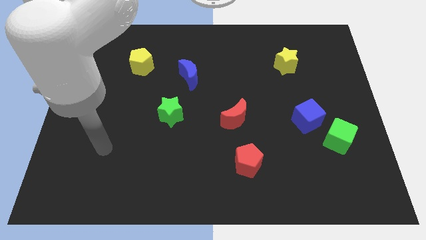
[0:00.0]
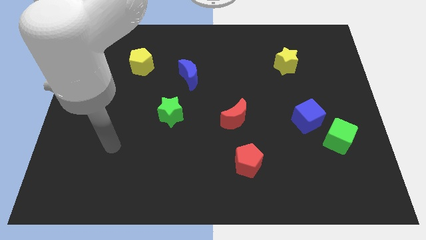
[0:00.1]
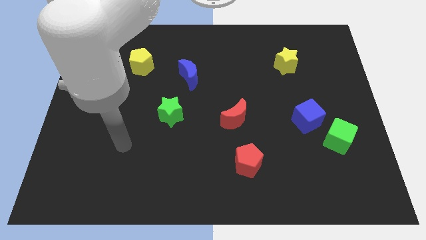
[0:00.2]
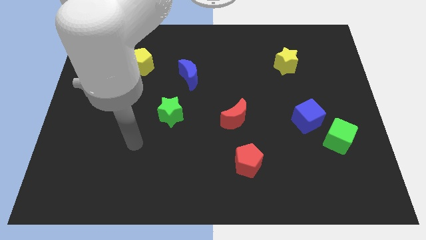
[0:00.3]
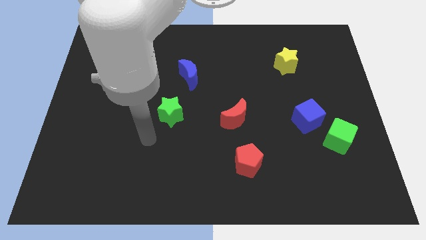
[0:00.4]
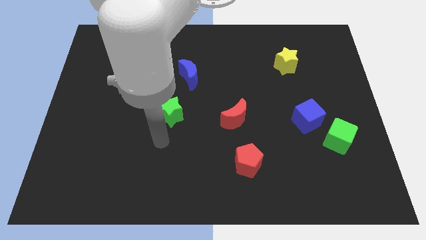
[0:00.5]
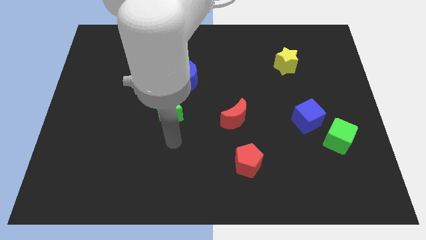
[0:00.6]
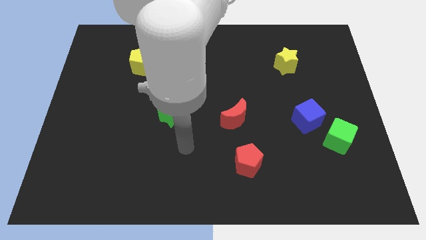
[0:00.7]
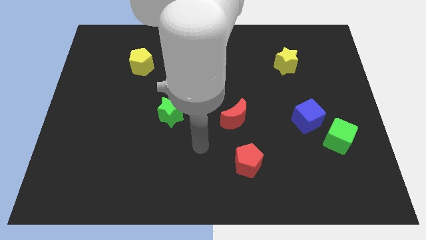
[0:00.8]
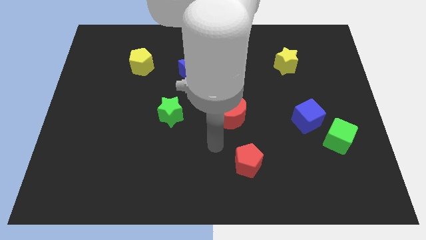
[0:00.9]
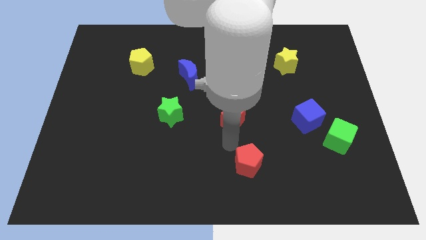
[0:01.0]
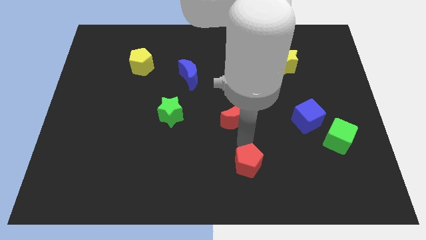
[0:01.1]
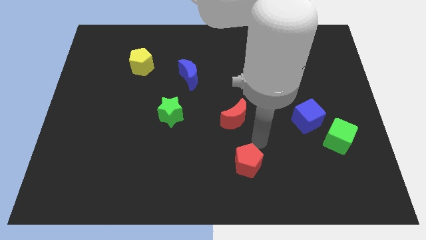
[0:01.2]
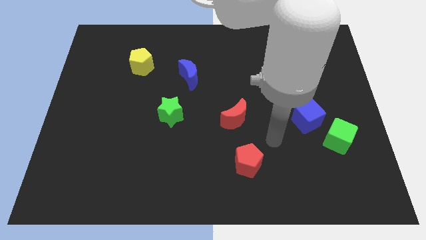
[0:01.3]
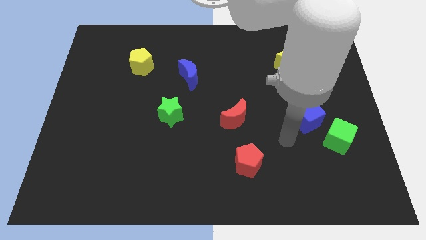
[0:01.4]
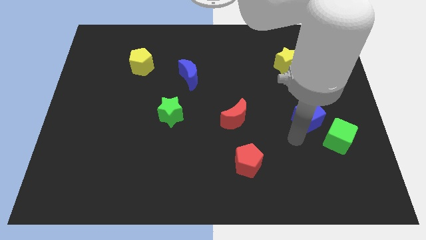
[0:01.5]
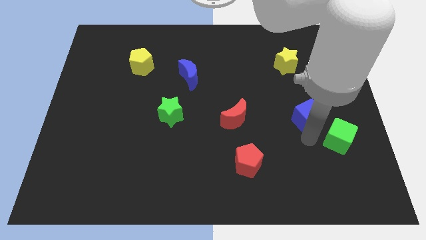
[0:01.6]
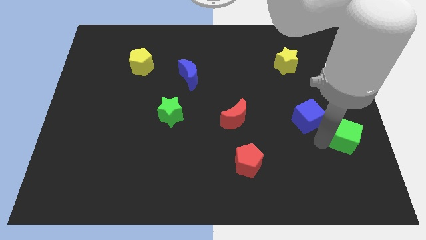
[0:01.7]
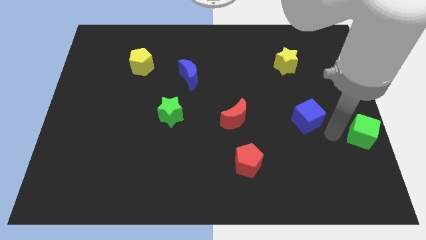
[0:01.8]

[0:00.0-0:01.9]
move the blue cube away from the green cube

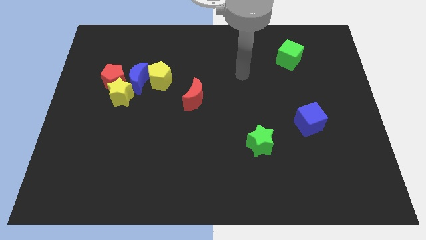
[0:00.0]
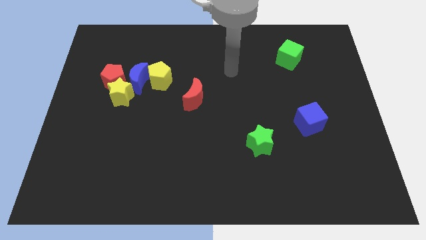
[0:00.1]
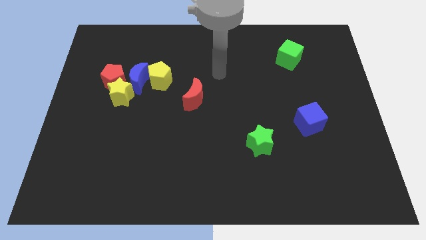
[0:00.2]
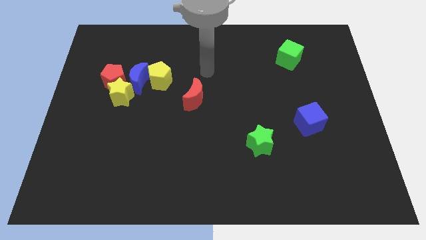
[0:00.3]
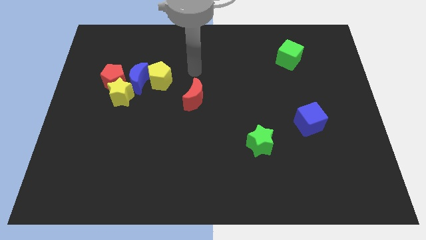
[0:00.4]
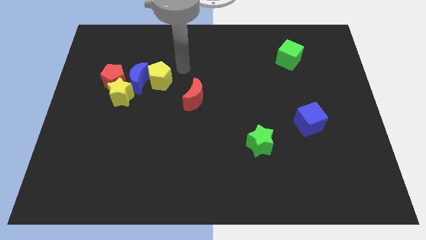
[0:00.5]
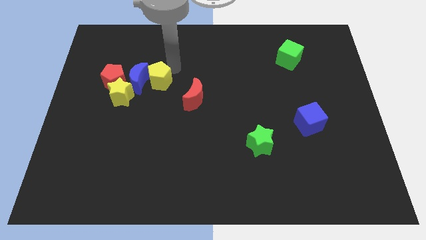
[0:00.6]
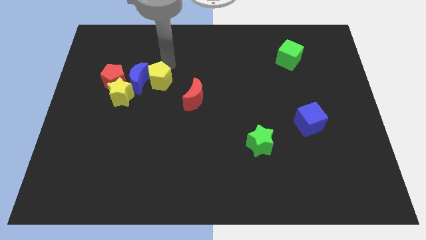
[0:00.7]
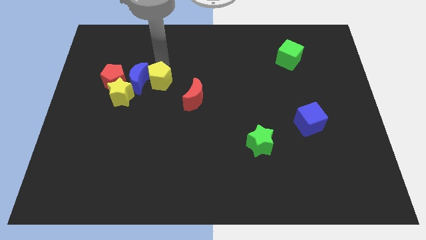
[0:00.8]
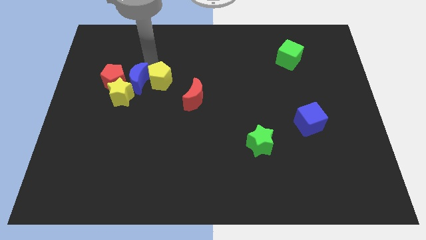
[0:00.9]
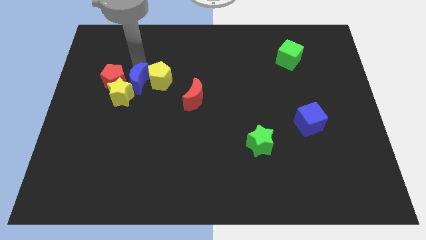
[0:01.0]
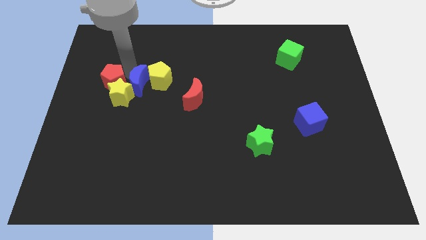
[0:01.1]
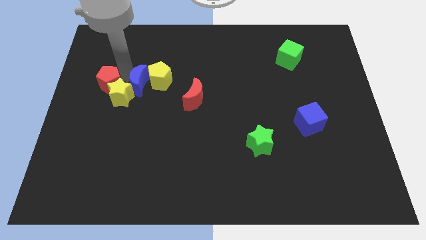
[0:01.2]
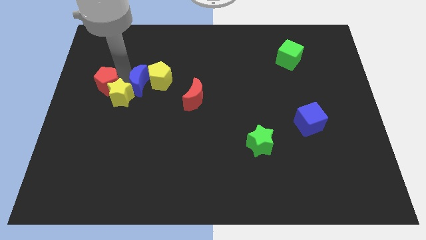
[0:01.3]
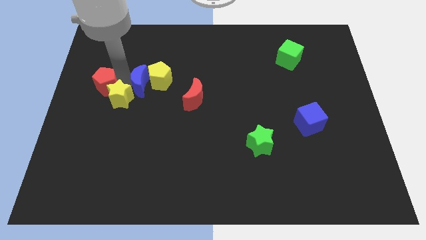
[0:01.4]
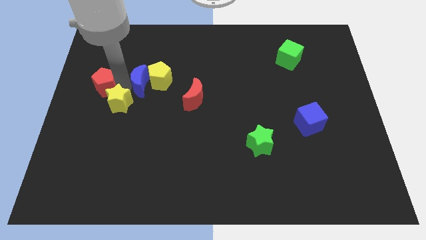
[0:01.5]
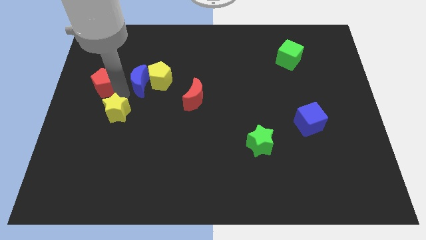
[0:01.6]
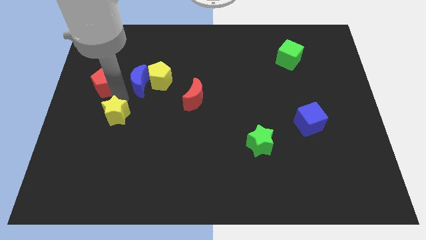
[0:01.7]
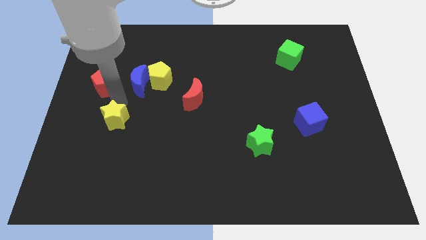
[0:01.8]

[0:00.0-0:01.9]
pull the yellow star apart from the red pentagon and blue moon

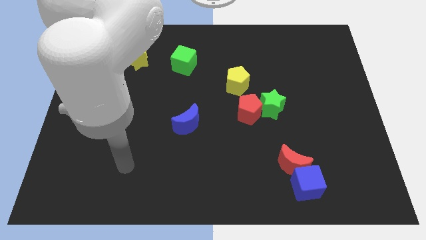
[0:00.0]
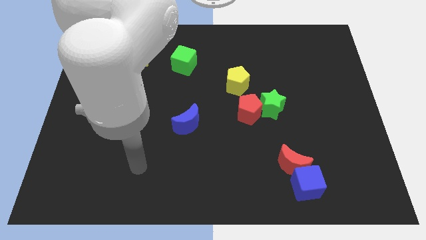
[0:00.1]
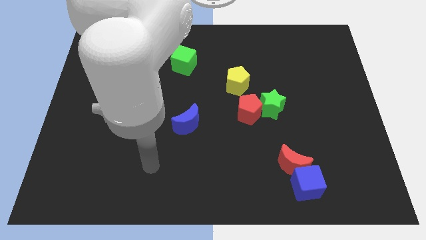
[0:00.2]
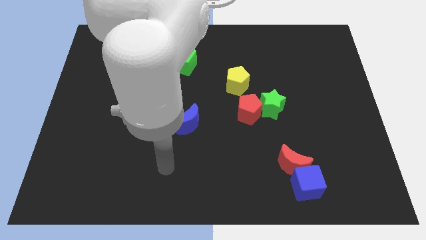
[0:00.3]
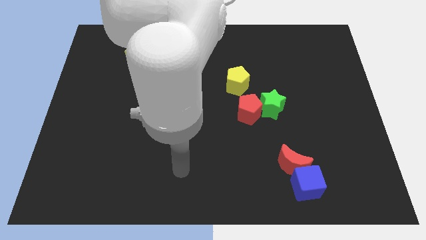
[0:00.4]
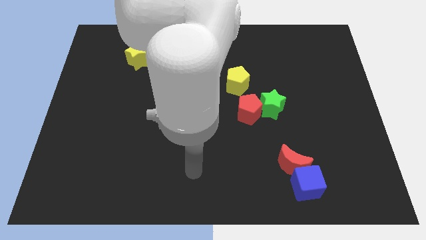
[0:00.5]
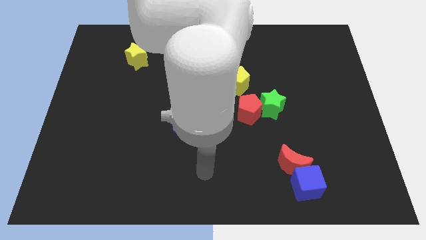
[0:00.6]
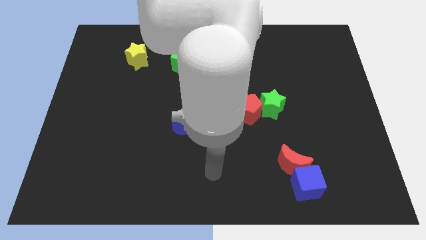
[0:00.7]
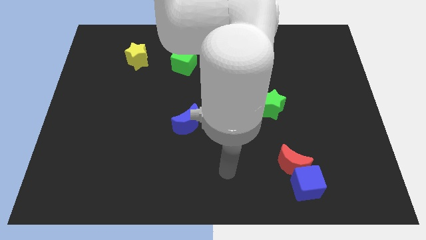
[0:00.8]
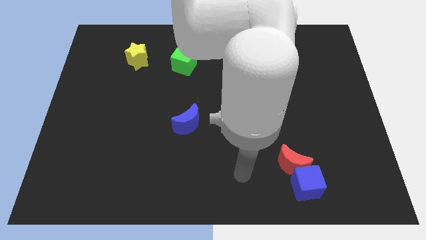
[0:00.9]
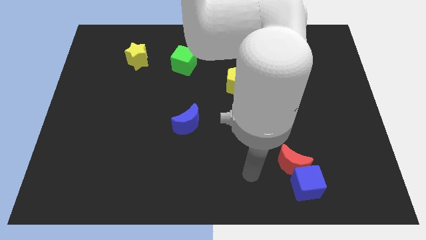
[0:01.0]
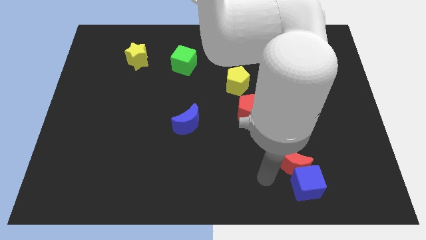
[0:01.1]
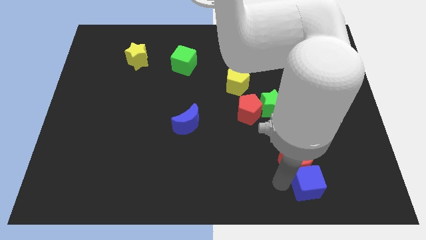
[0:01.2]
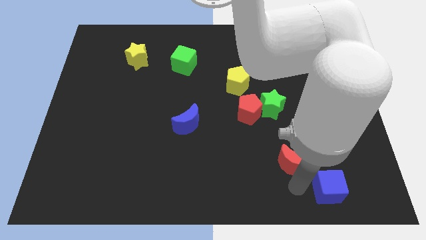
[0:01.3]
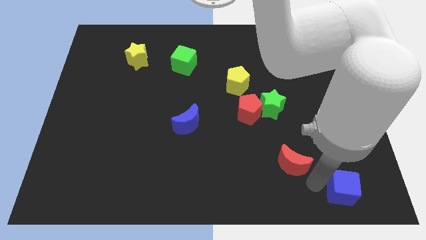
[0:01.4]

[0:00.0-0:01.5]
separate the red moon from the blue cube

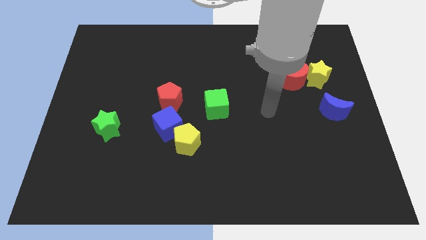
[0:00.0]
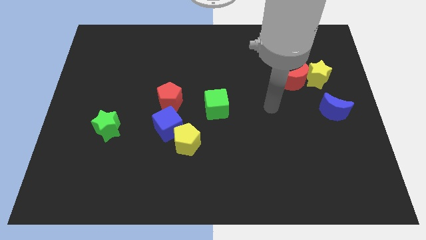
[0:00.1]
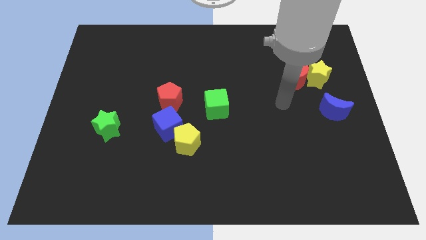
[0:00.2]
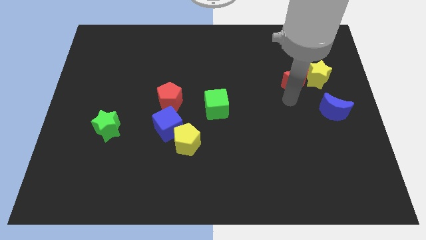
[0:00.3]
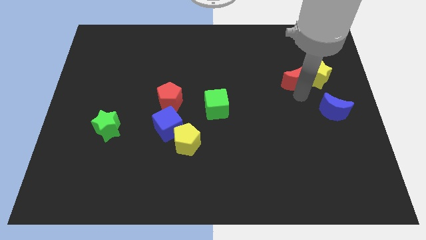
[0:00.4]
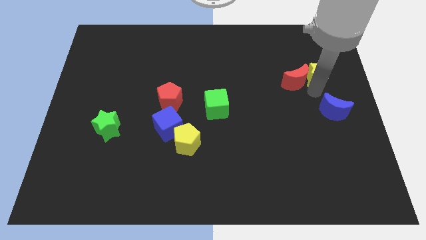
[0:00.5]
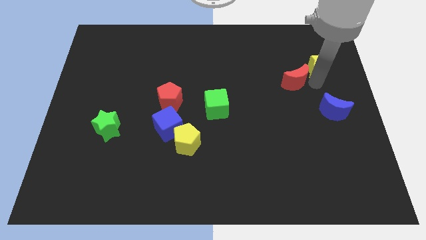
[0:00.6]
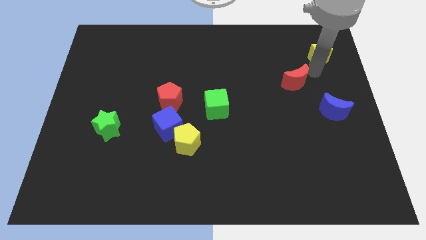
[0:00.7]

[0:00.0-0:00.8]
separate the red moon from the yellow star

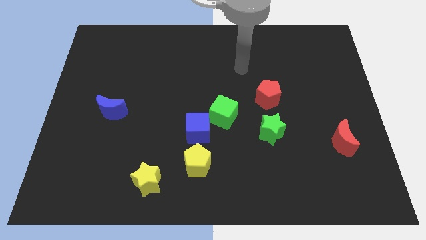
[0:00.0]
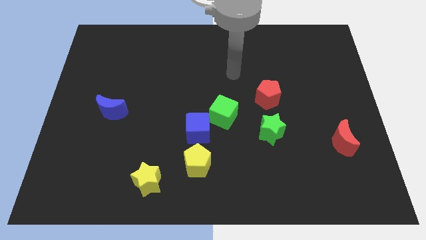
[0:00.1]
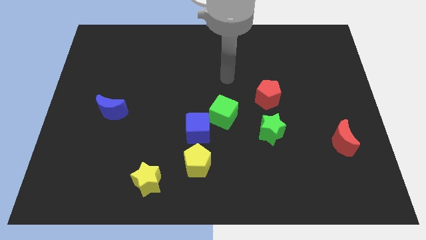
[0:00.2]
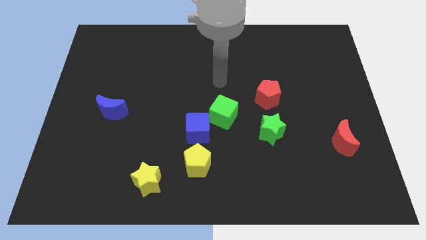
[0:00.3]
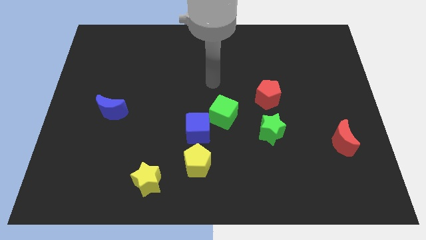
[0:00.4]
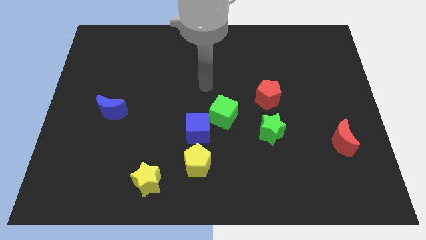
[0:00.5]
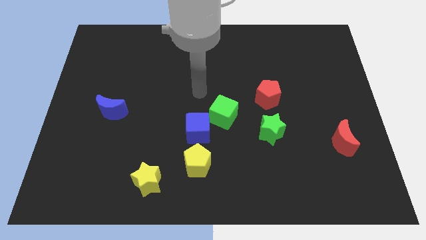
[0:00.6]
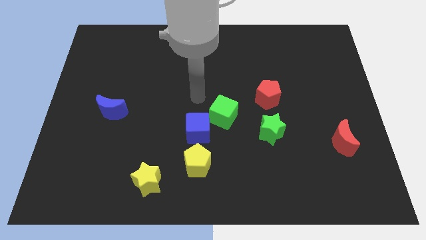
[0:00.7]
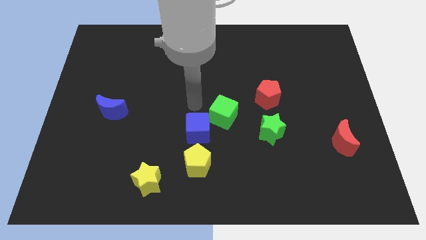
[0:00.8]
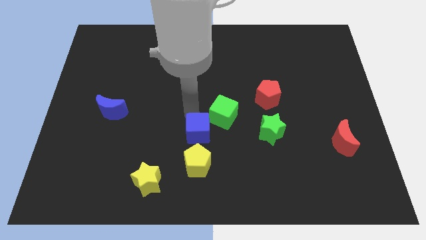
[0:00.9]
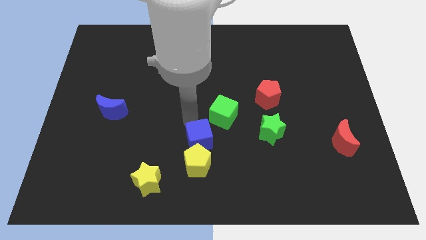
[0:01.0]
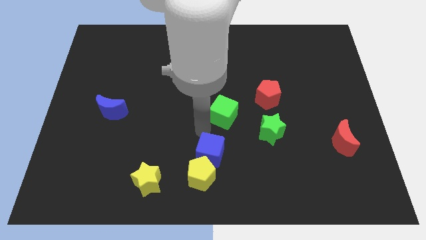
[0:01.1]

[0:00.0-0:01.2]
separate the green cube from the blue cube

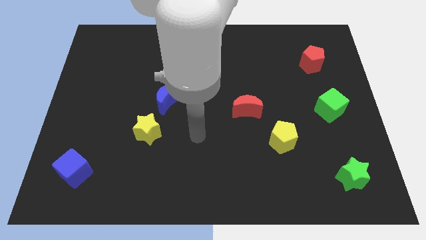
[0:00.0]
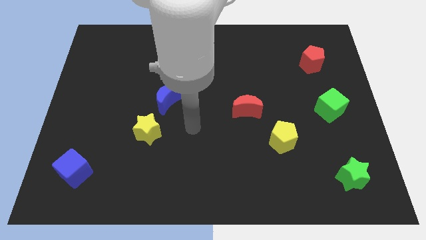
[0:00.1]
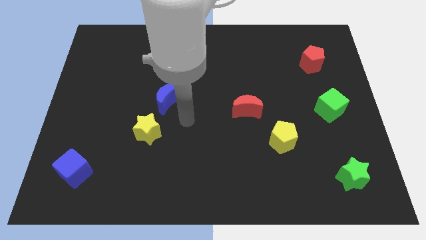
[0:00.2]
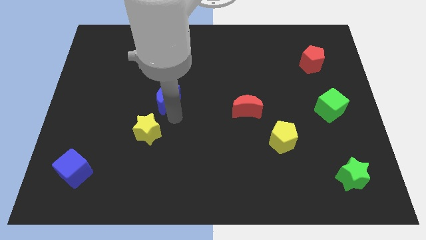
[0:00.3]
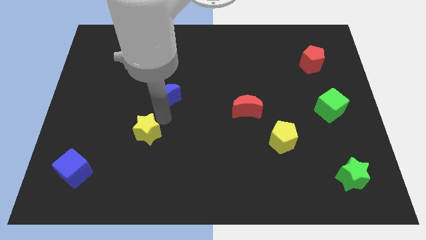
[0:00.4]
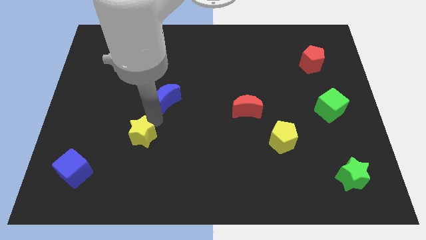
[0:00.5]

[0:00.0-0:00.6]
separate the blue moon from the yellow star

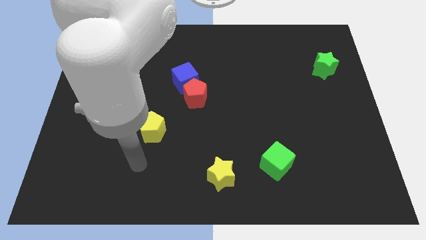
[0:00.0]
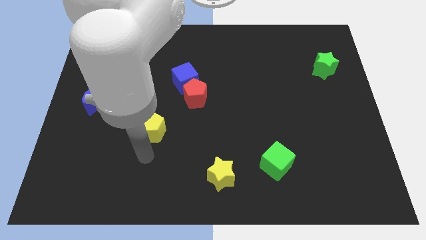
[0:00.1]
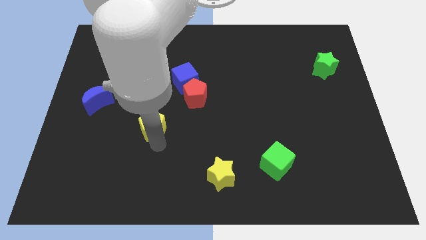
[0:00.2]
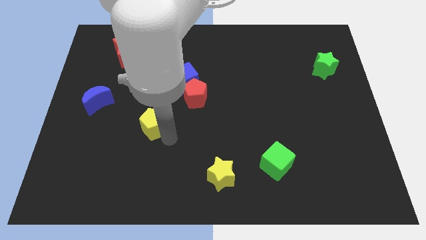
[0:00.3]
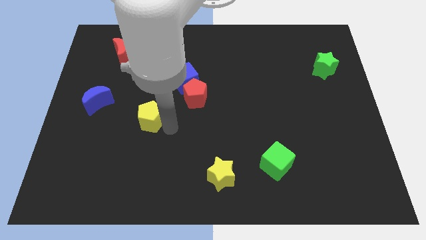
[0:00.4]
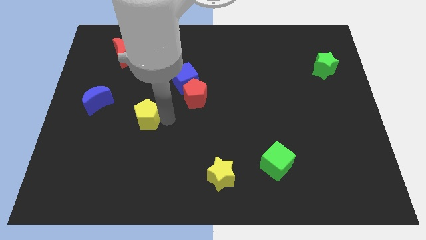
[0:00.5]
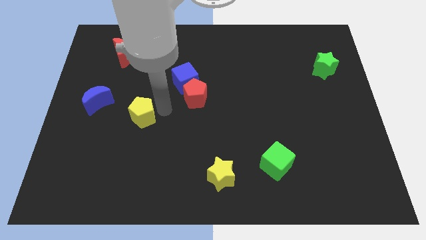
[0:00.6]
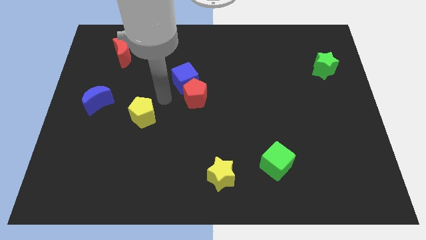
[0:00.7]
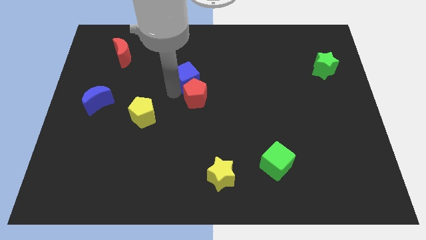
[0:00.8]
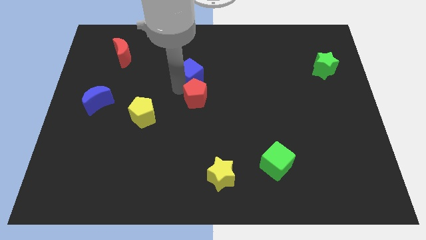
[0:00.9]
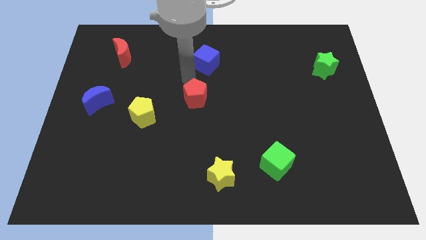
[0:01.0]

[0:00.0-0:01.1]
pull the red pentagon apart from the blue cube

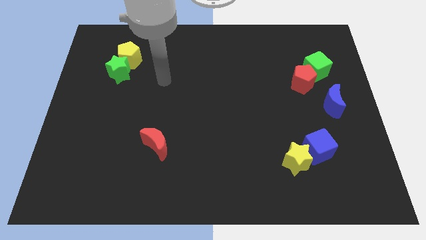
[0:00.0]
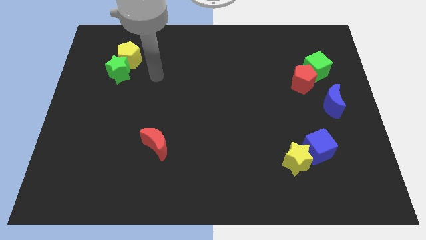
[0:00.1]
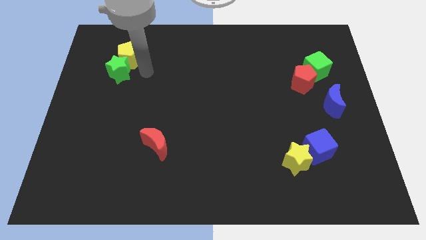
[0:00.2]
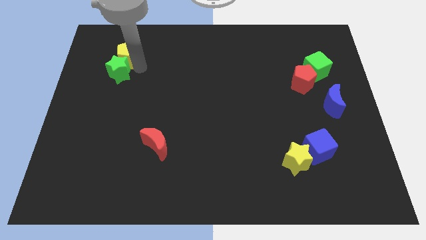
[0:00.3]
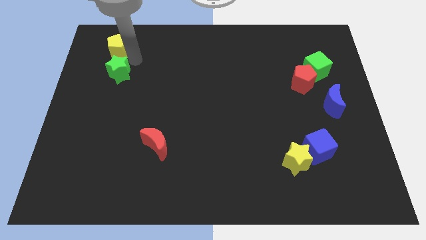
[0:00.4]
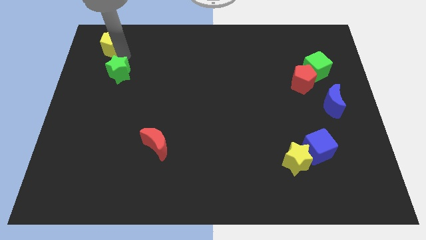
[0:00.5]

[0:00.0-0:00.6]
separate the green star from the yellow pentagon
